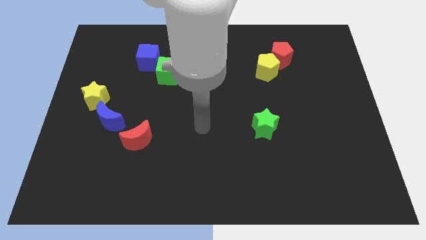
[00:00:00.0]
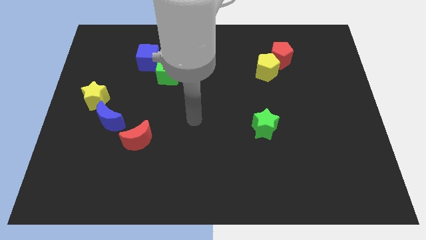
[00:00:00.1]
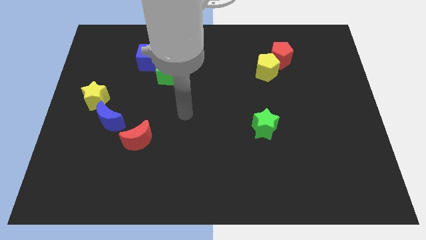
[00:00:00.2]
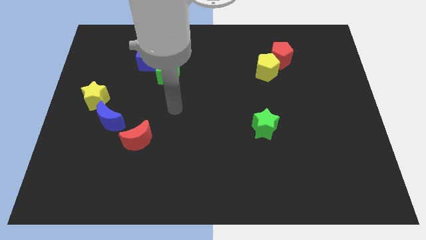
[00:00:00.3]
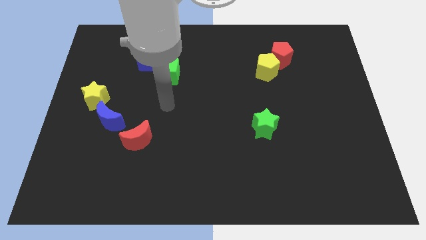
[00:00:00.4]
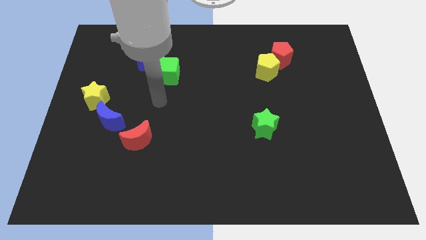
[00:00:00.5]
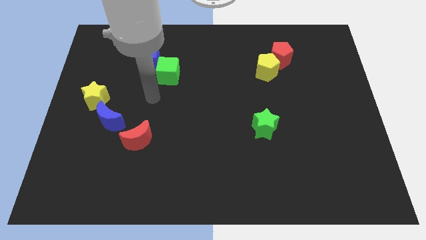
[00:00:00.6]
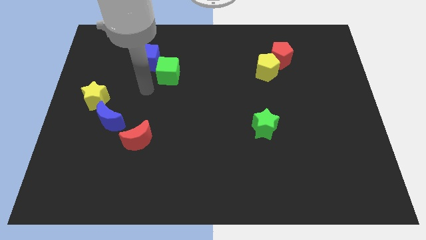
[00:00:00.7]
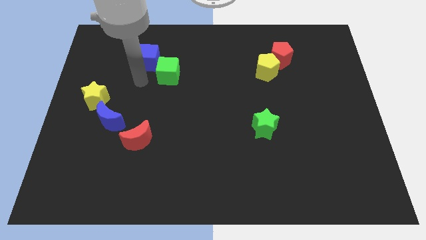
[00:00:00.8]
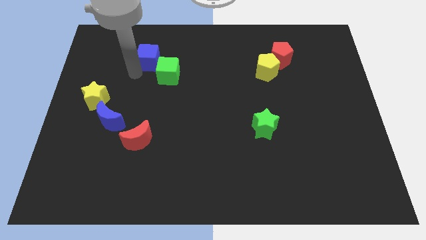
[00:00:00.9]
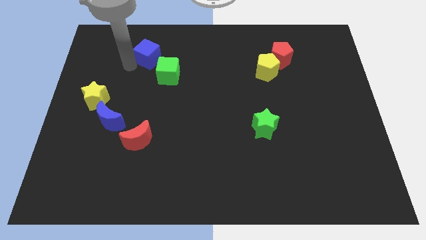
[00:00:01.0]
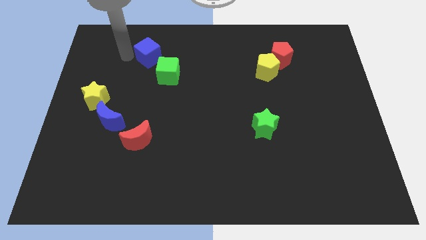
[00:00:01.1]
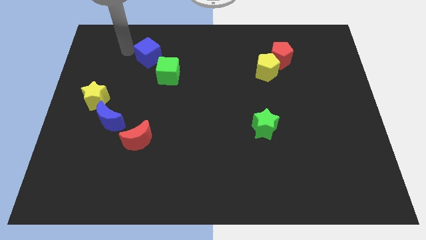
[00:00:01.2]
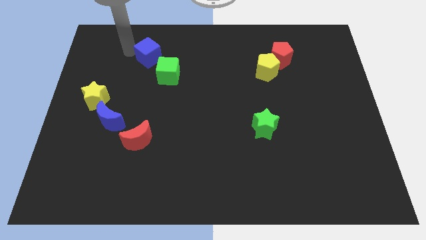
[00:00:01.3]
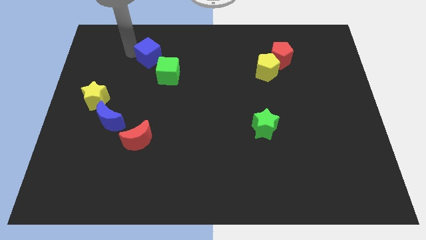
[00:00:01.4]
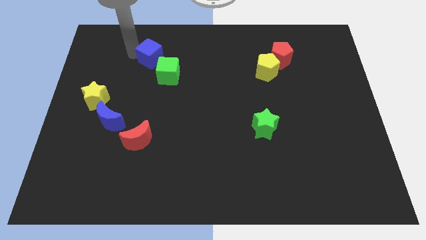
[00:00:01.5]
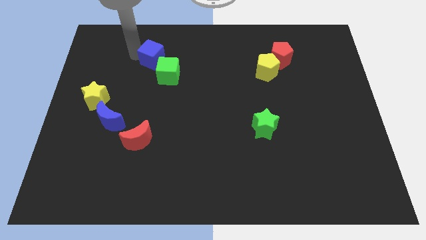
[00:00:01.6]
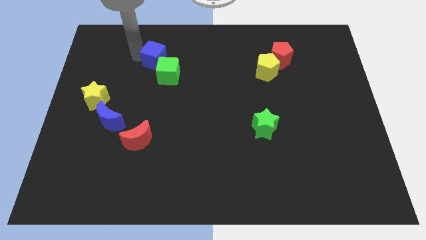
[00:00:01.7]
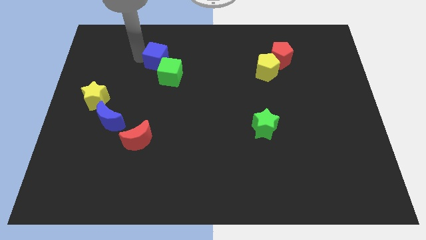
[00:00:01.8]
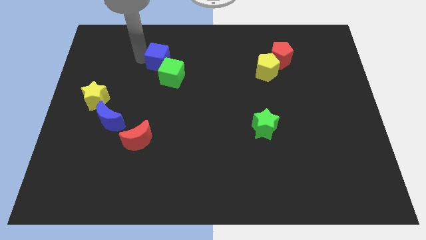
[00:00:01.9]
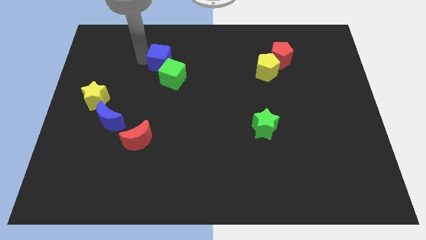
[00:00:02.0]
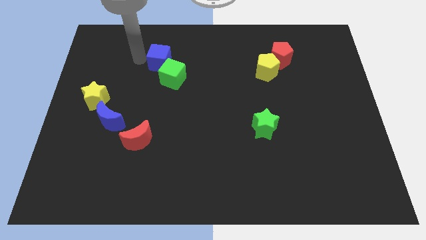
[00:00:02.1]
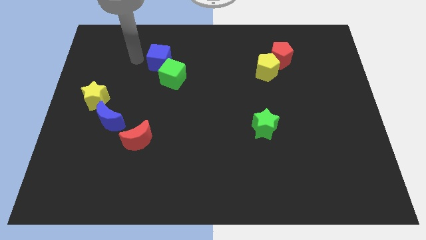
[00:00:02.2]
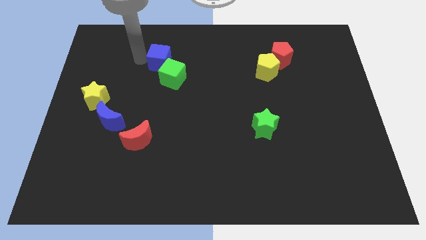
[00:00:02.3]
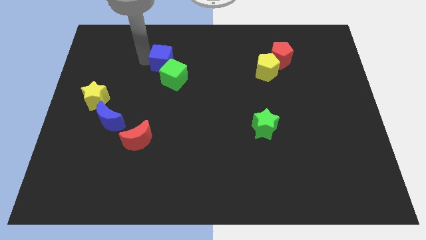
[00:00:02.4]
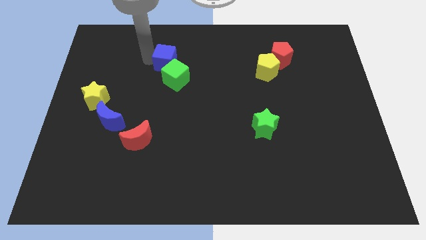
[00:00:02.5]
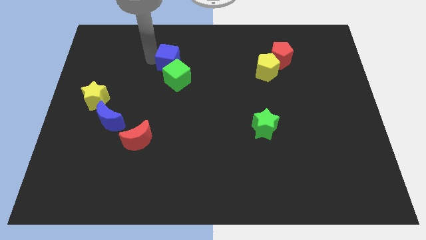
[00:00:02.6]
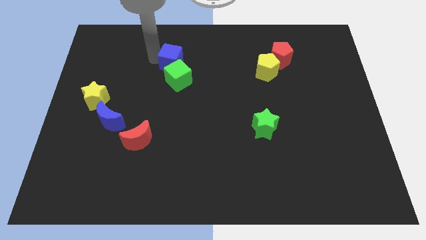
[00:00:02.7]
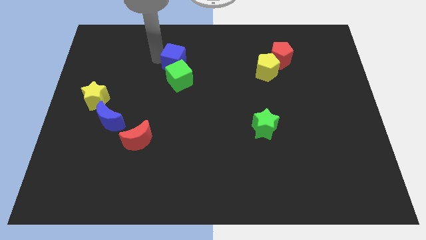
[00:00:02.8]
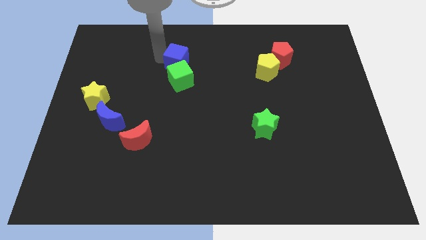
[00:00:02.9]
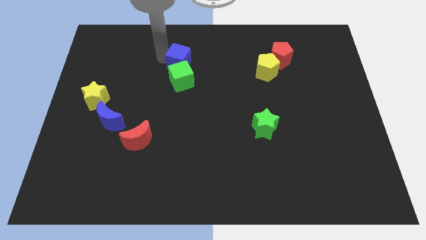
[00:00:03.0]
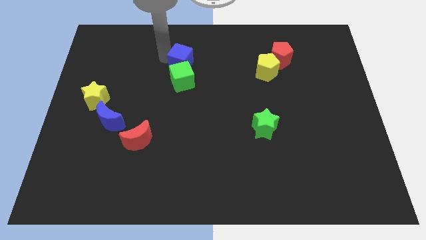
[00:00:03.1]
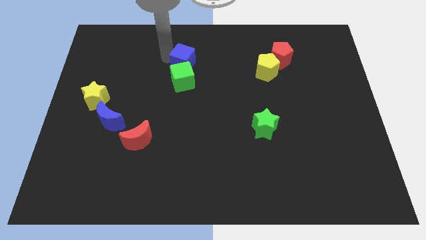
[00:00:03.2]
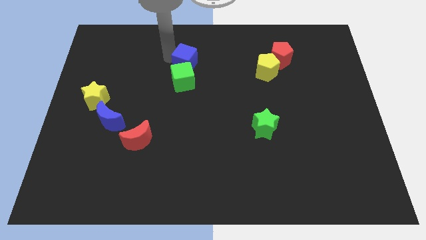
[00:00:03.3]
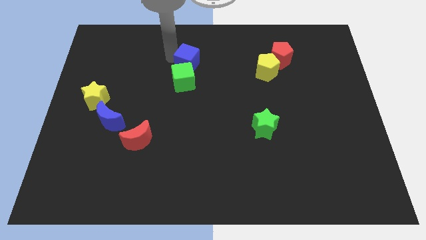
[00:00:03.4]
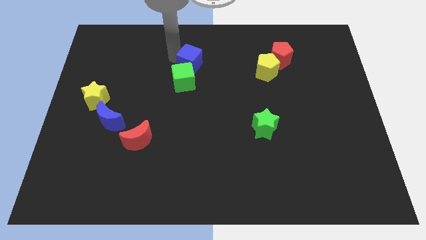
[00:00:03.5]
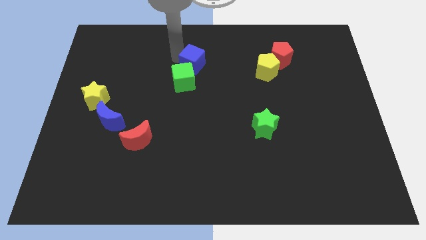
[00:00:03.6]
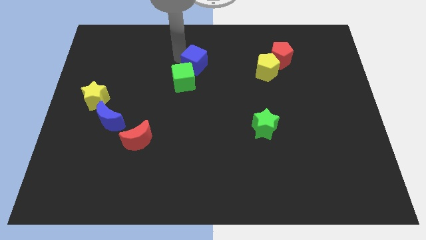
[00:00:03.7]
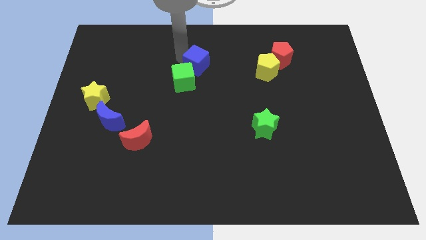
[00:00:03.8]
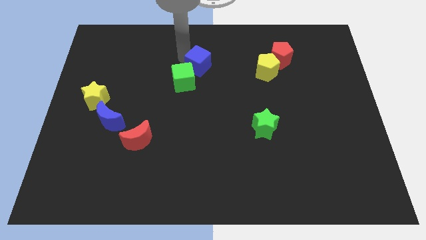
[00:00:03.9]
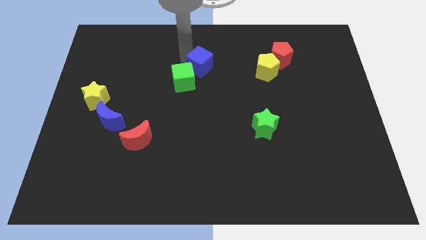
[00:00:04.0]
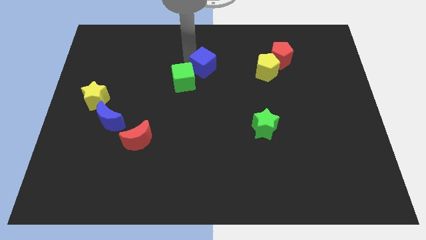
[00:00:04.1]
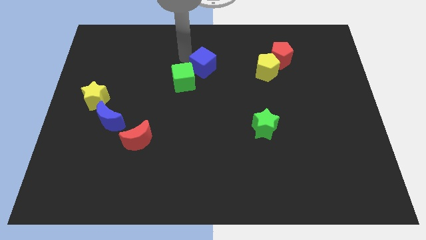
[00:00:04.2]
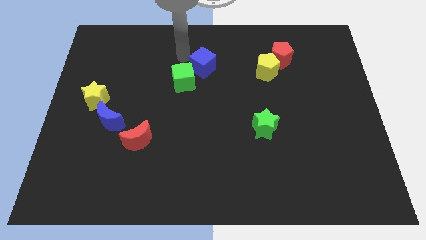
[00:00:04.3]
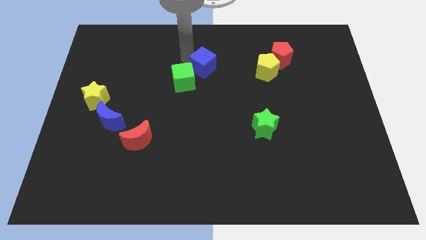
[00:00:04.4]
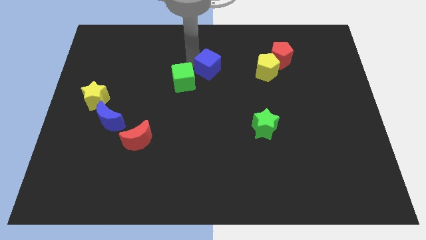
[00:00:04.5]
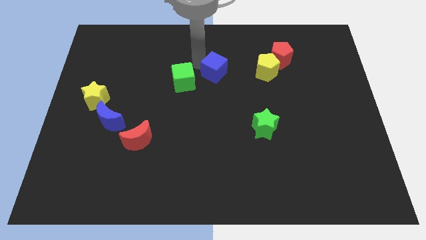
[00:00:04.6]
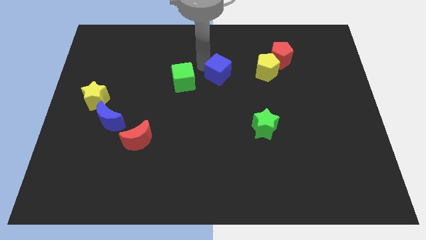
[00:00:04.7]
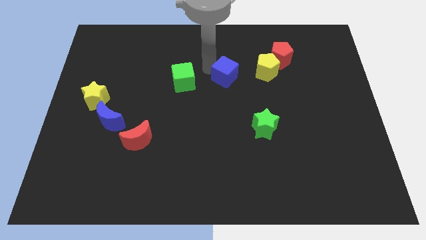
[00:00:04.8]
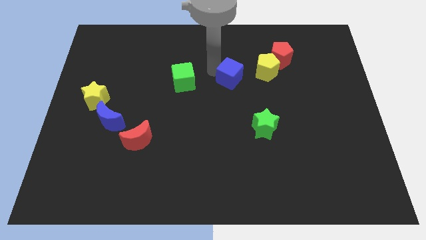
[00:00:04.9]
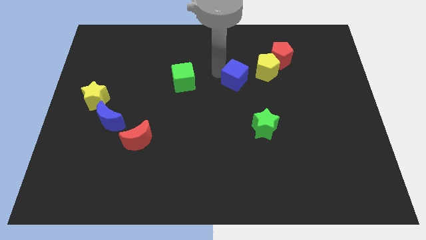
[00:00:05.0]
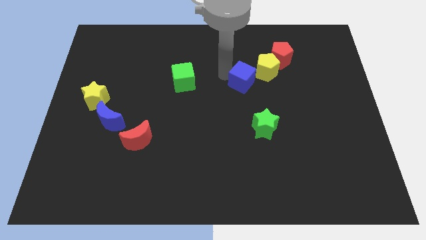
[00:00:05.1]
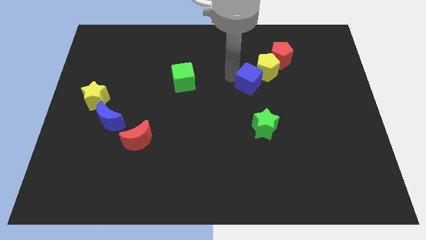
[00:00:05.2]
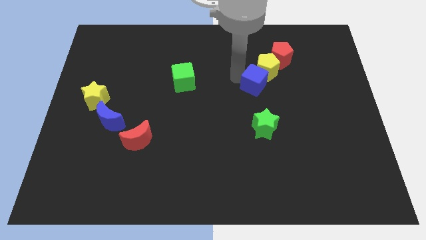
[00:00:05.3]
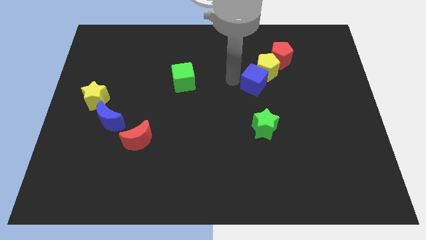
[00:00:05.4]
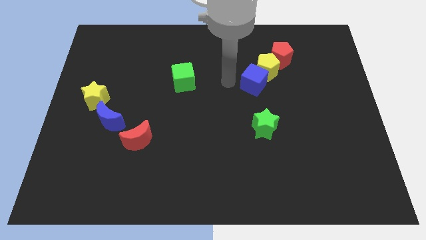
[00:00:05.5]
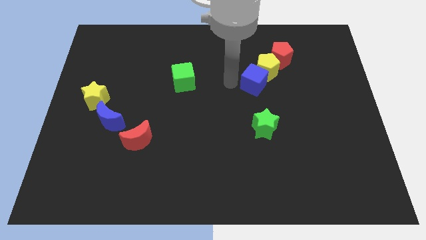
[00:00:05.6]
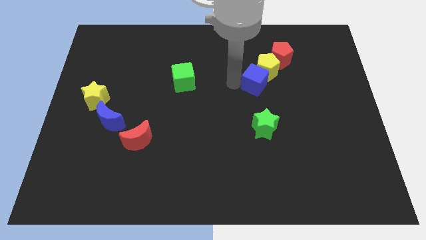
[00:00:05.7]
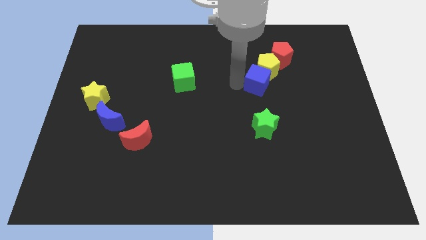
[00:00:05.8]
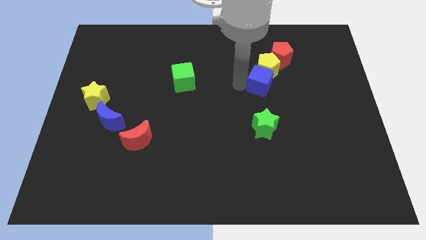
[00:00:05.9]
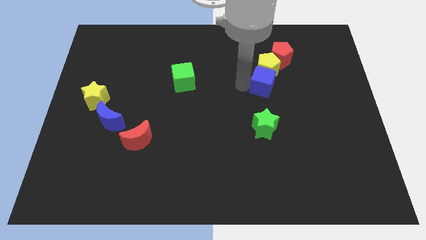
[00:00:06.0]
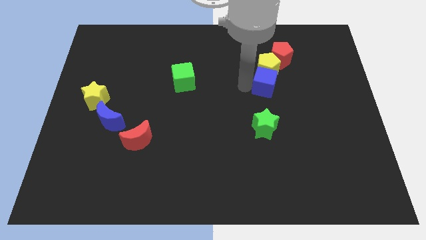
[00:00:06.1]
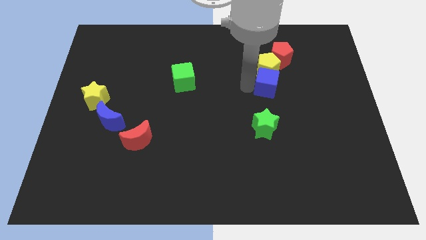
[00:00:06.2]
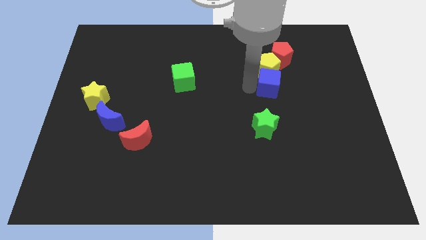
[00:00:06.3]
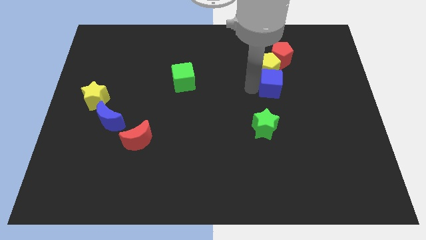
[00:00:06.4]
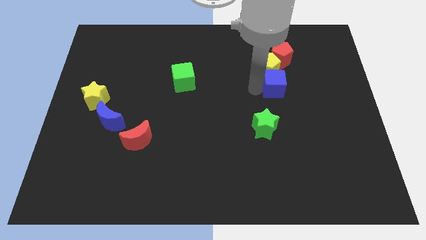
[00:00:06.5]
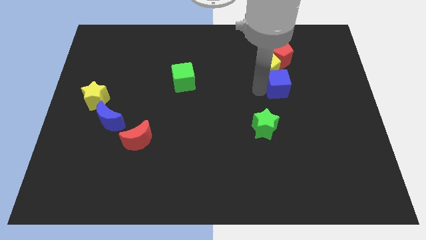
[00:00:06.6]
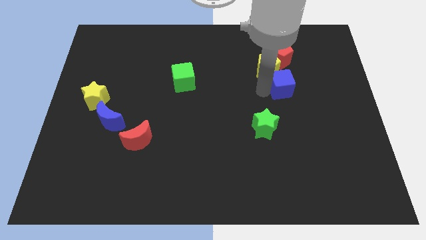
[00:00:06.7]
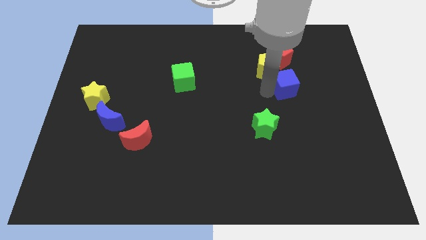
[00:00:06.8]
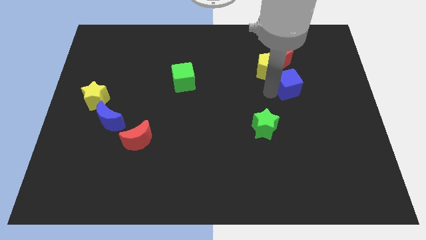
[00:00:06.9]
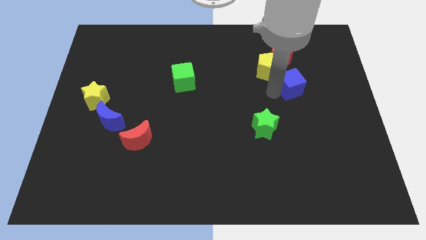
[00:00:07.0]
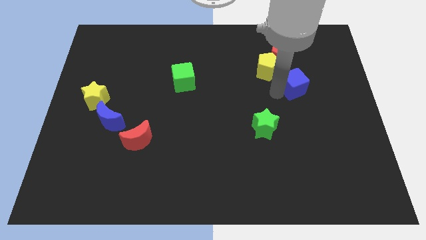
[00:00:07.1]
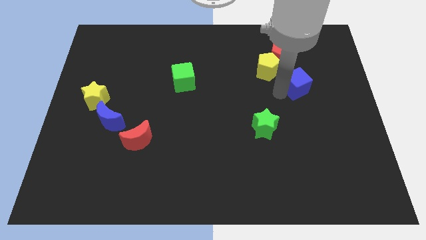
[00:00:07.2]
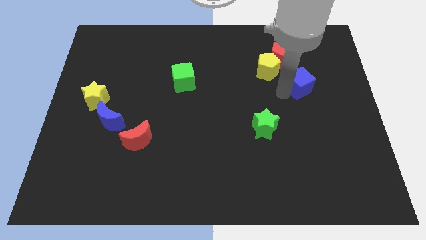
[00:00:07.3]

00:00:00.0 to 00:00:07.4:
move the blue cube to the bottom right of the red pentagon
